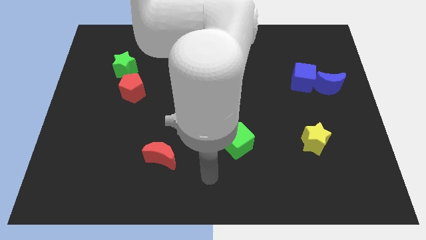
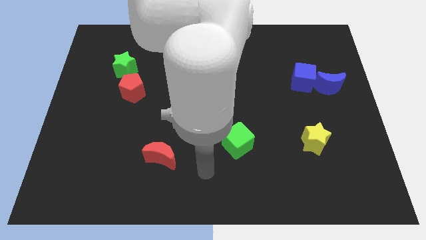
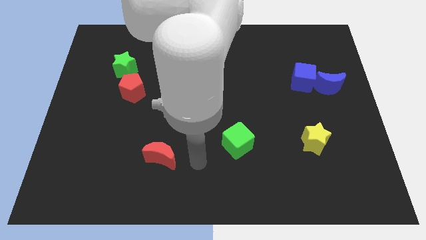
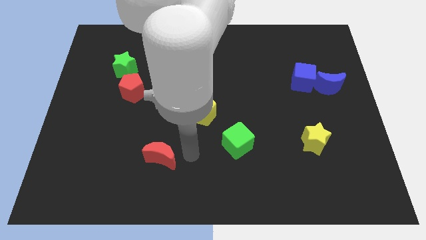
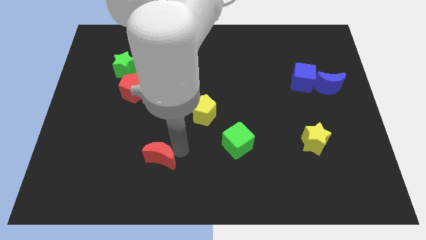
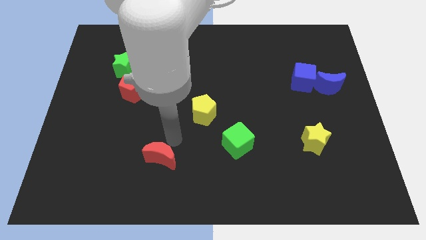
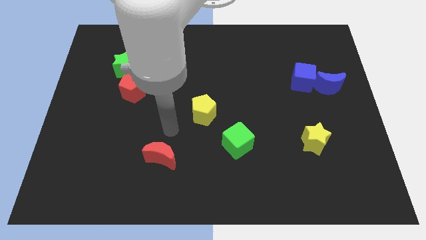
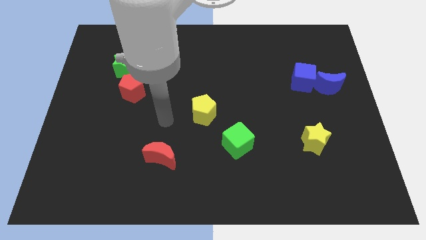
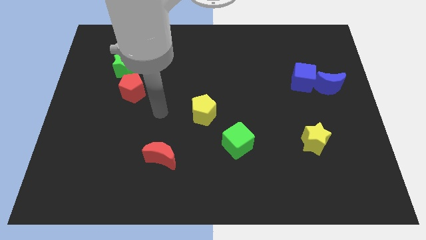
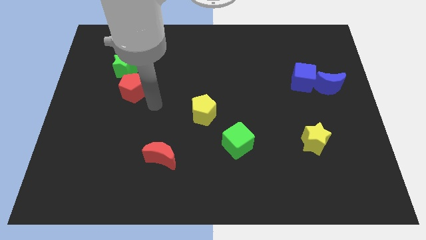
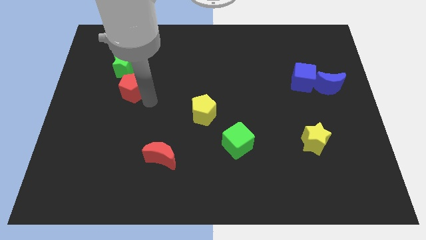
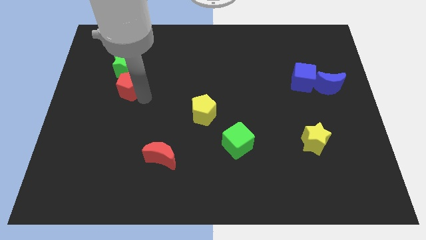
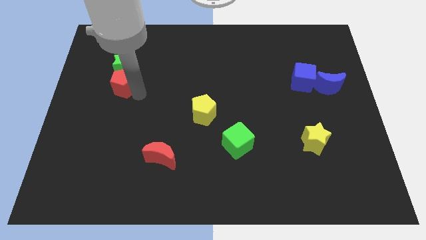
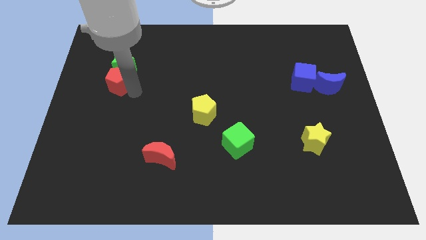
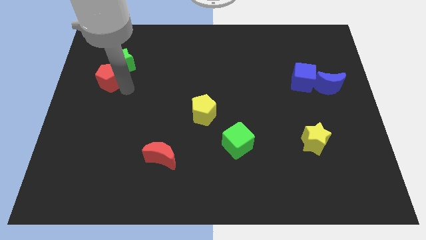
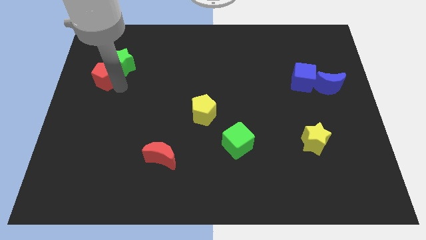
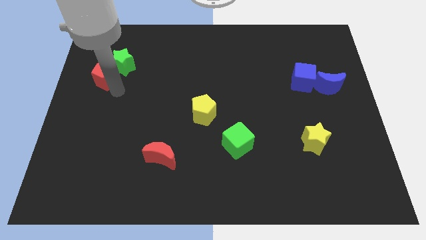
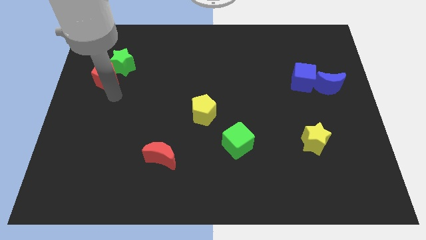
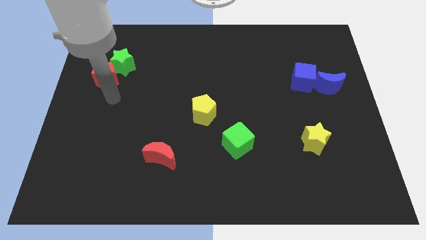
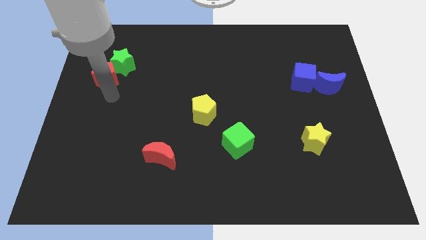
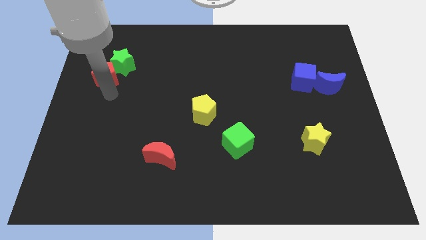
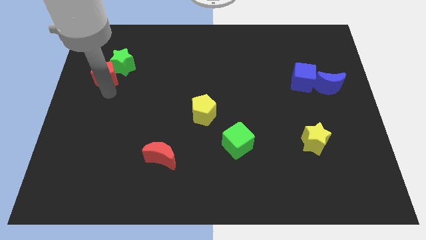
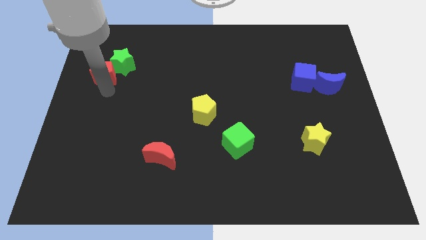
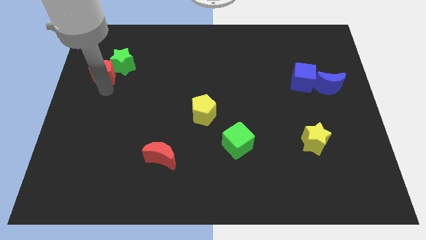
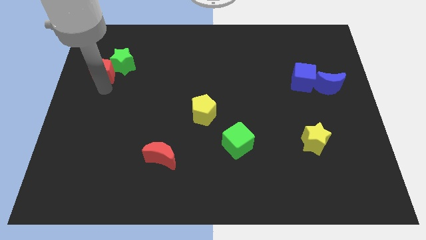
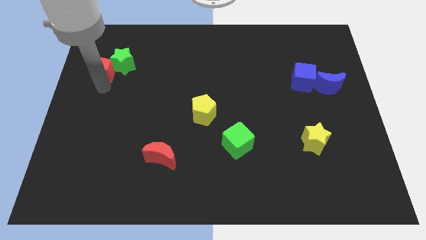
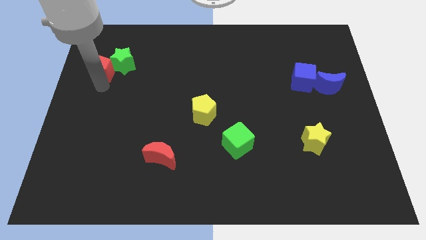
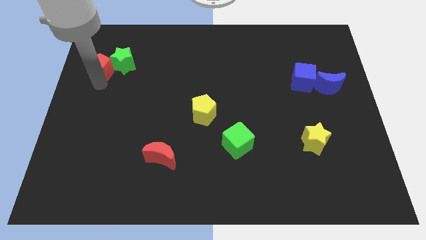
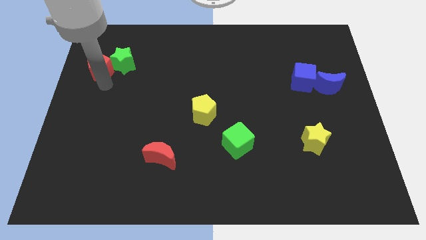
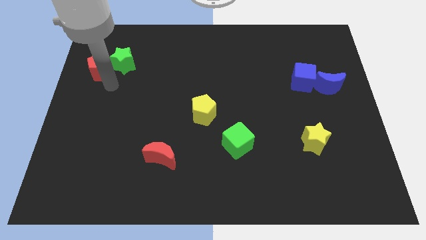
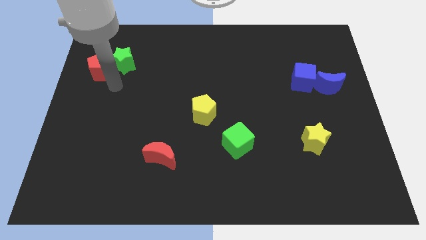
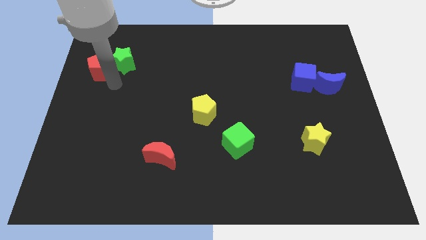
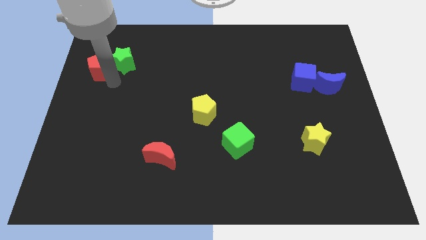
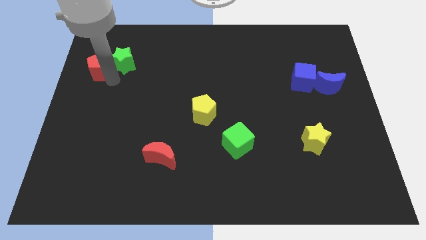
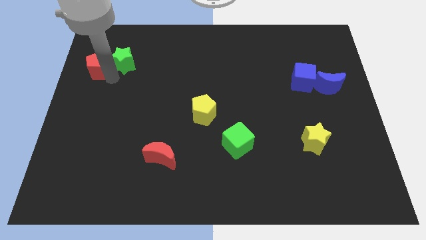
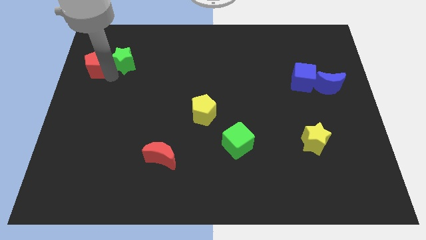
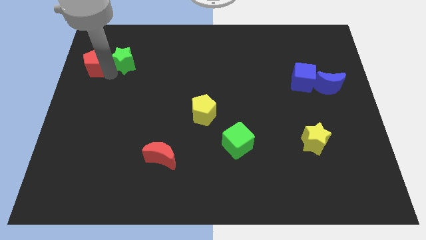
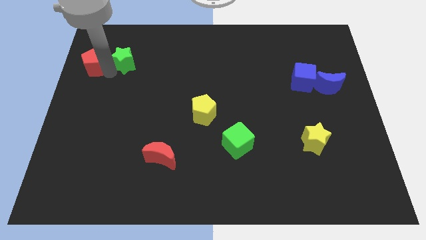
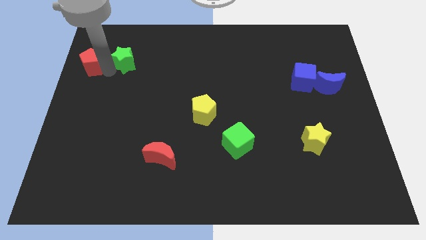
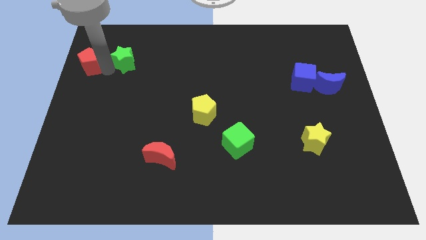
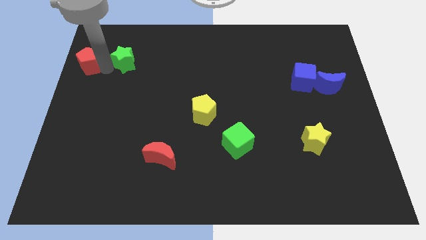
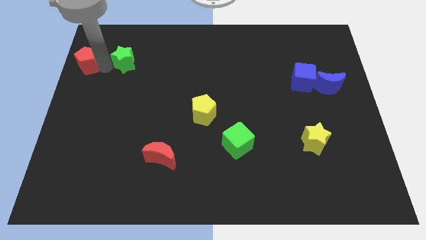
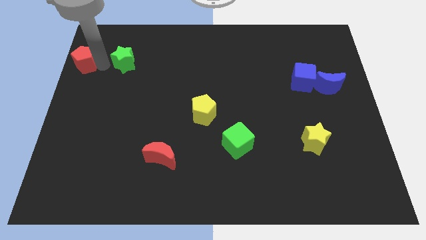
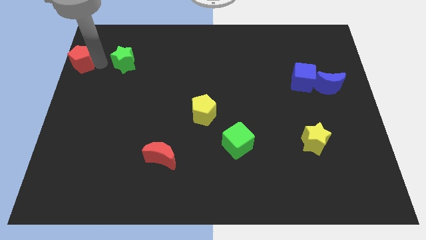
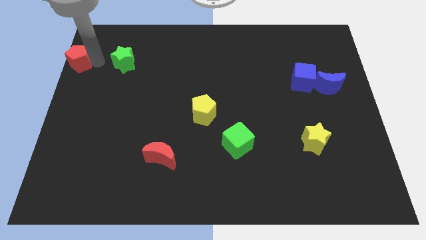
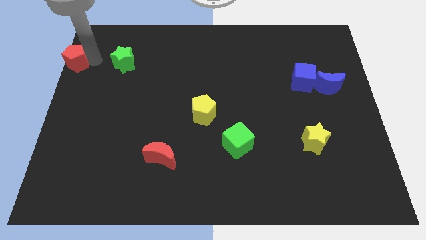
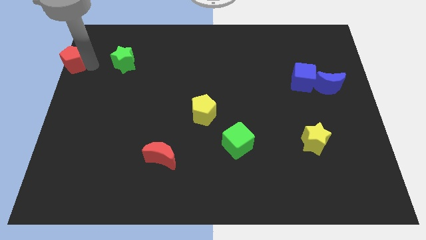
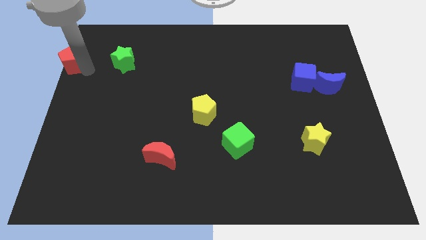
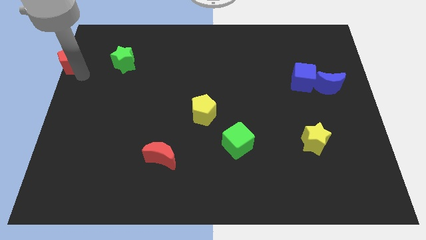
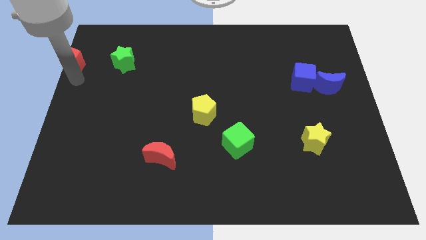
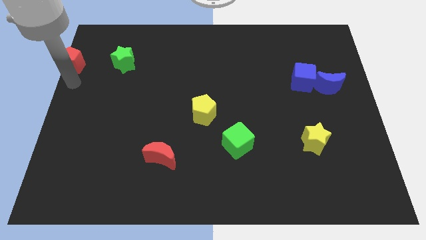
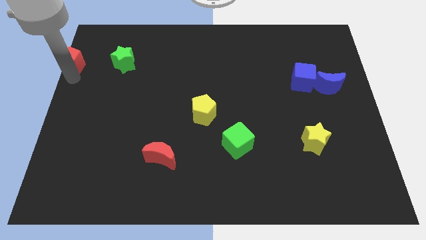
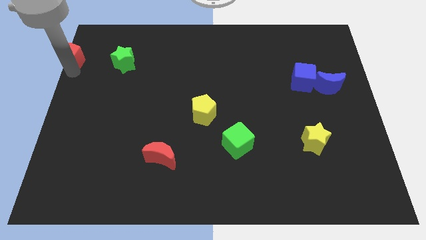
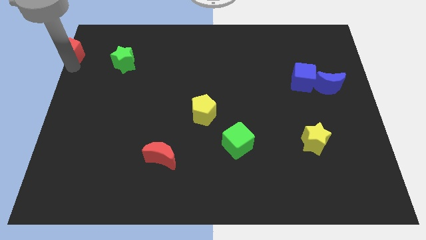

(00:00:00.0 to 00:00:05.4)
push the red pentagon to the top left corner

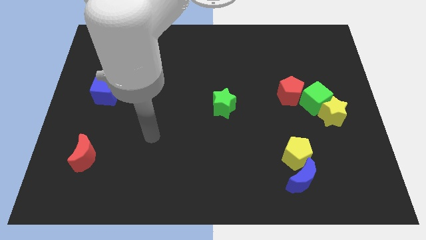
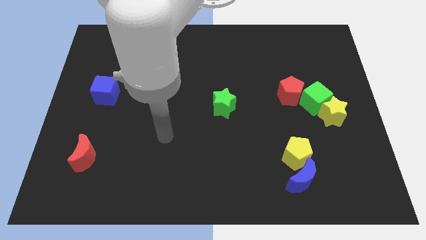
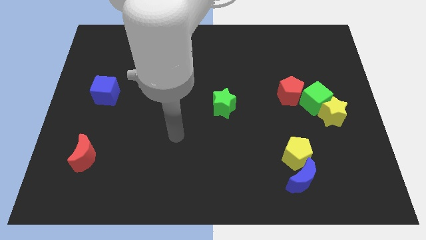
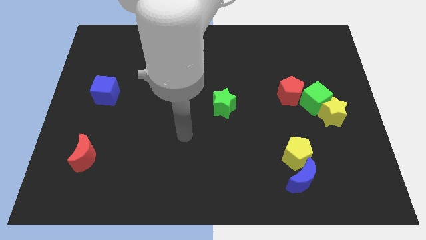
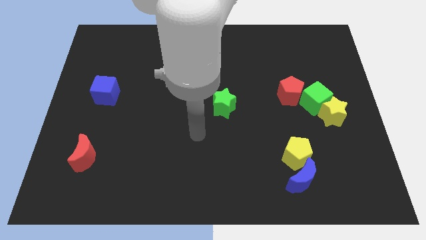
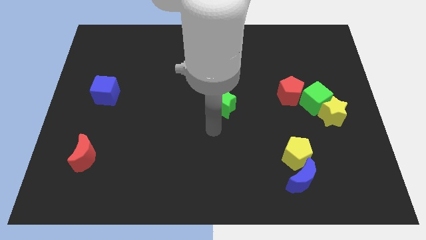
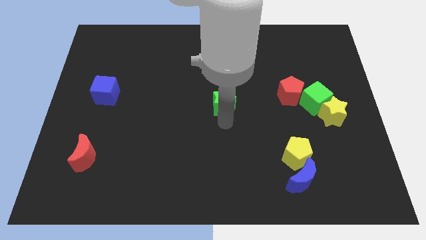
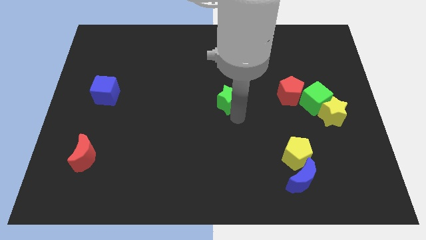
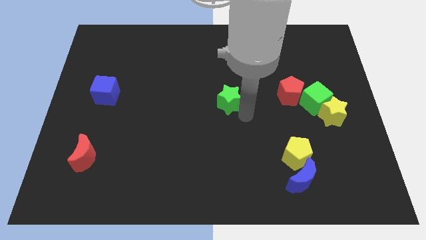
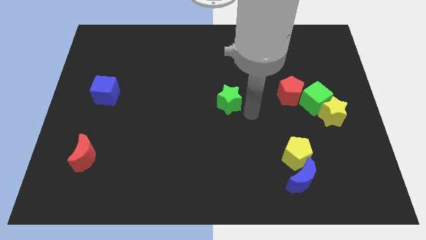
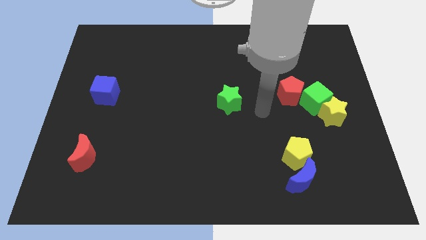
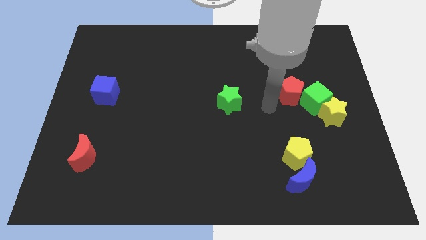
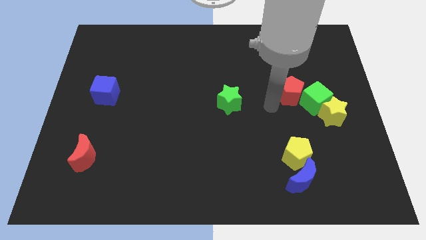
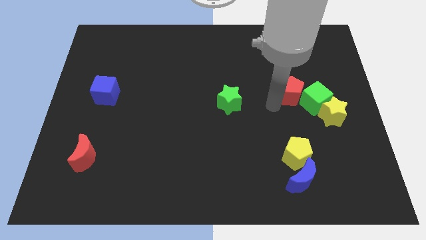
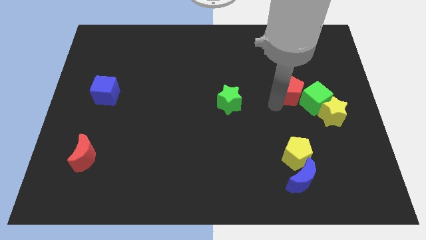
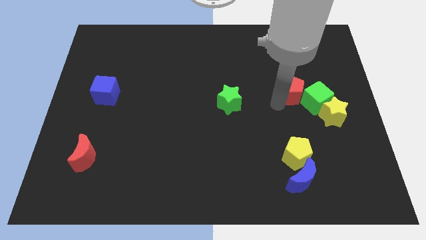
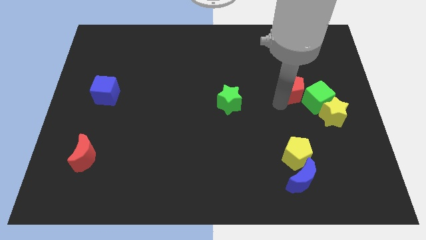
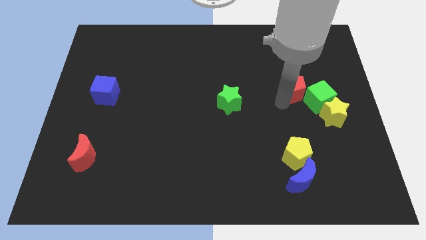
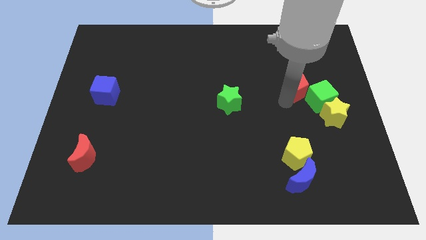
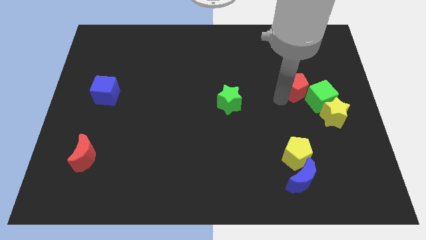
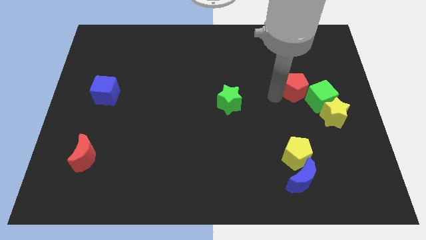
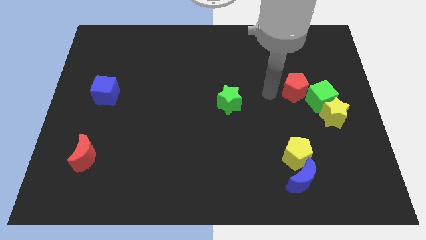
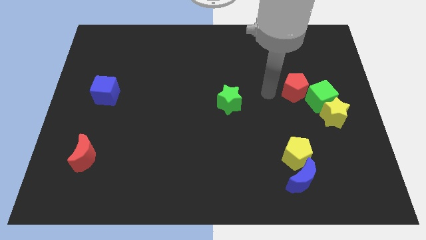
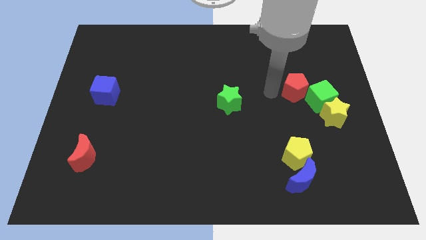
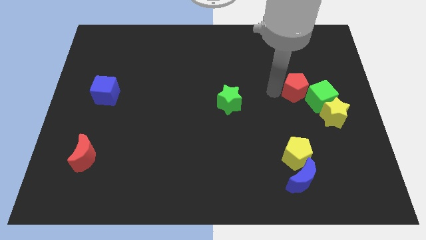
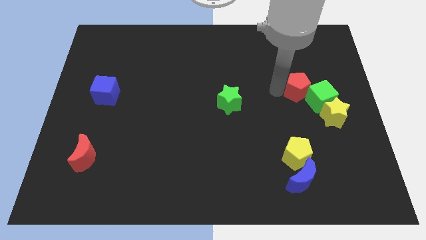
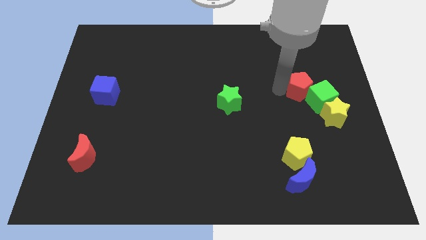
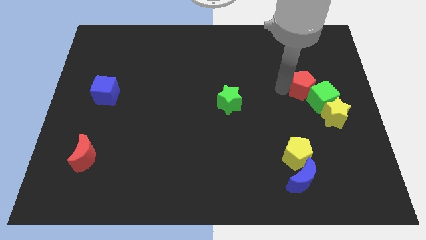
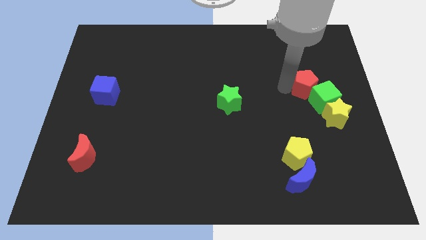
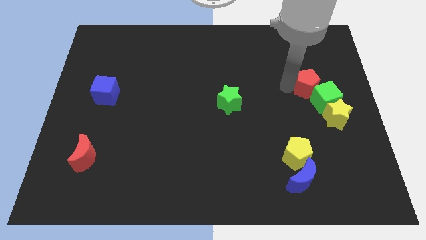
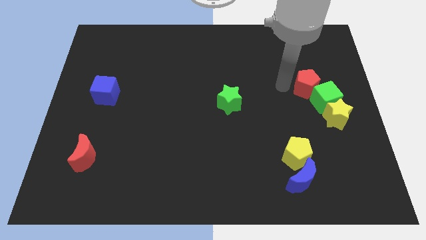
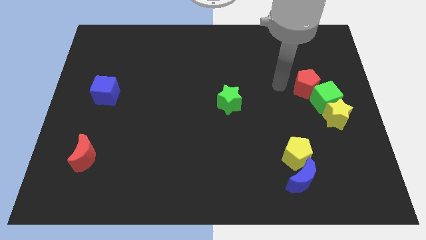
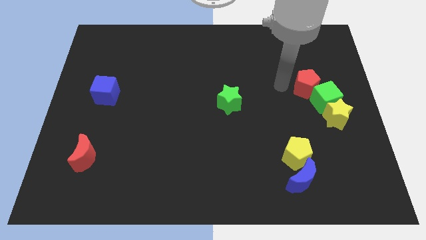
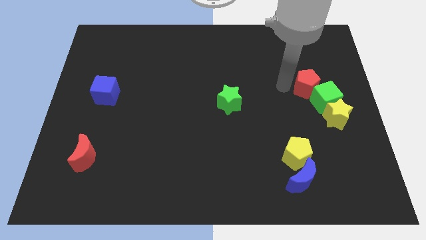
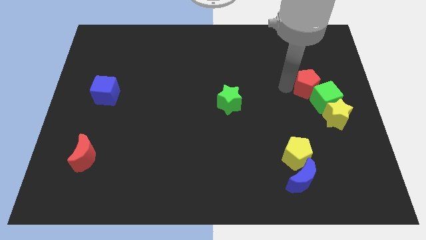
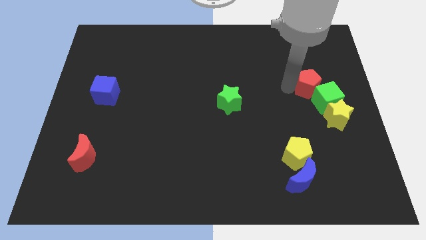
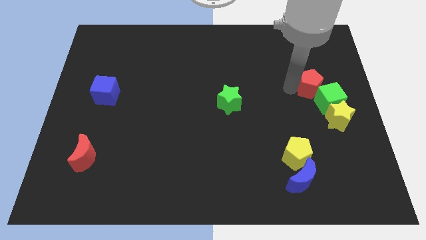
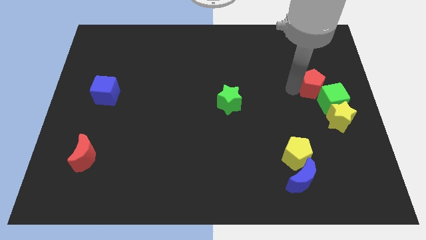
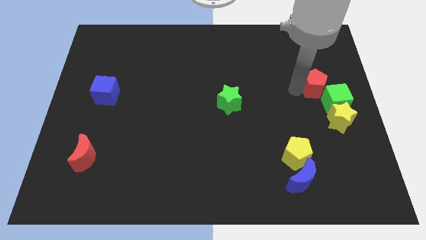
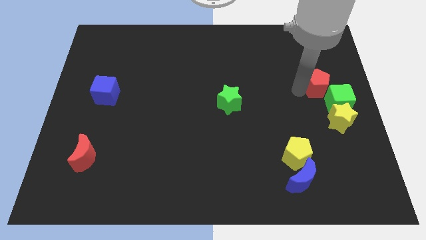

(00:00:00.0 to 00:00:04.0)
push the red pentagon to the right side
